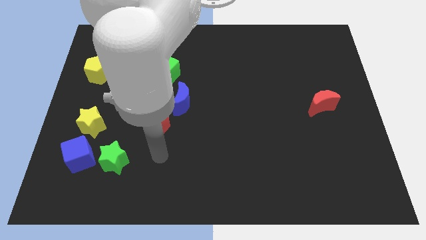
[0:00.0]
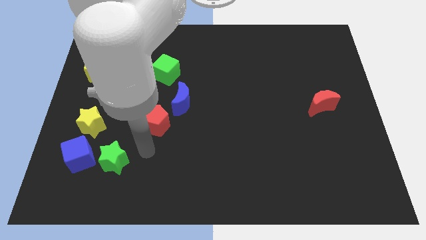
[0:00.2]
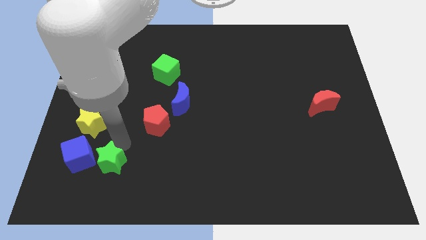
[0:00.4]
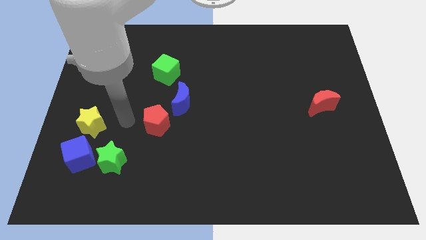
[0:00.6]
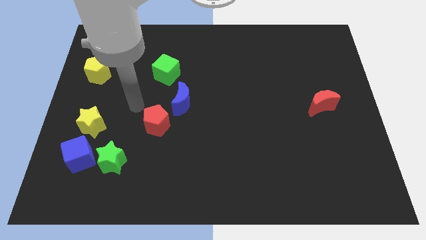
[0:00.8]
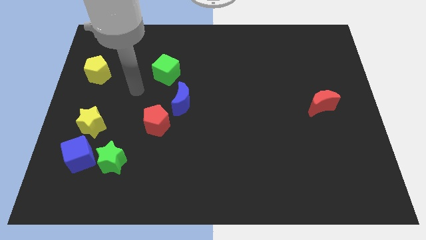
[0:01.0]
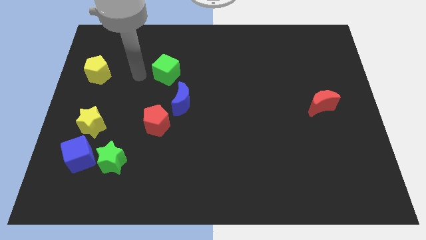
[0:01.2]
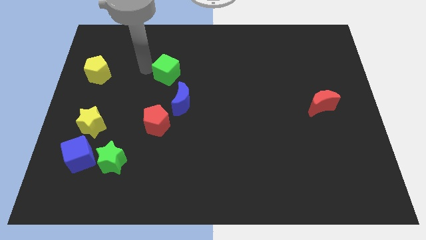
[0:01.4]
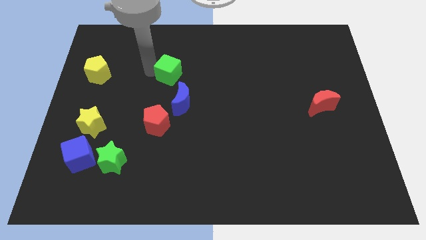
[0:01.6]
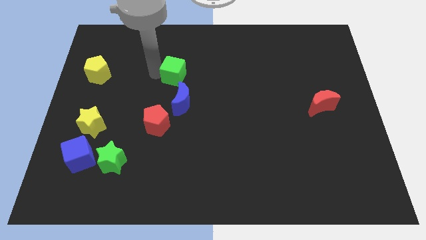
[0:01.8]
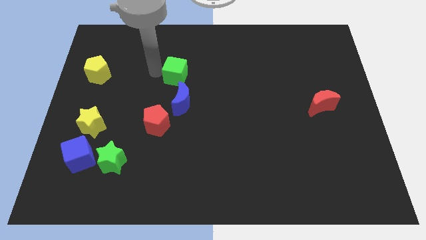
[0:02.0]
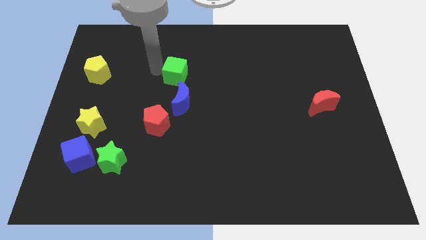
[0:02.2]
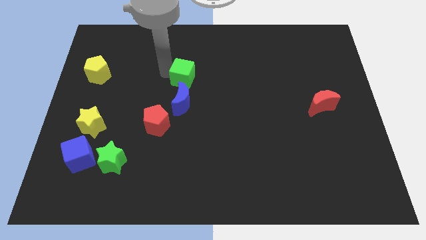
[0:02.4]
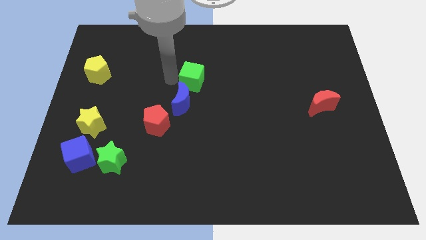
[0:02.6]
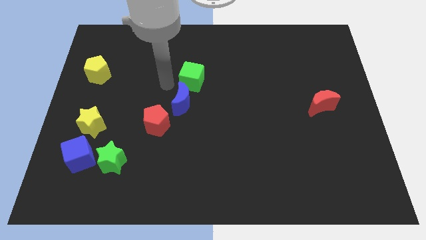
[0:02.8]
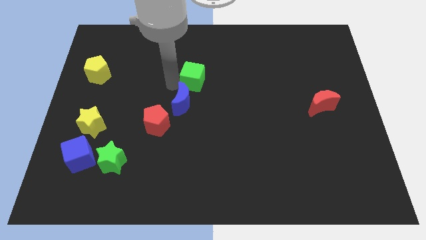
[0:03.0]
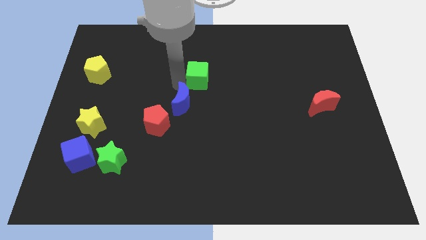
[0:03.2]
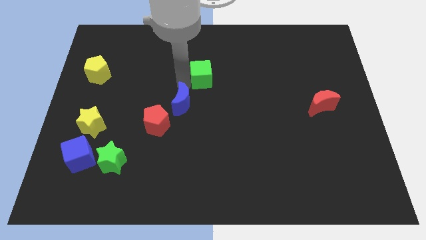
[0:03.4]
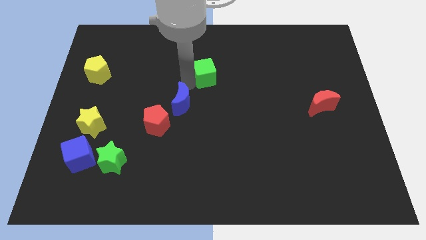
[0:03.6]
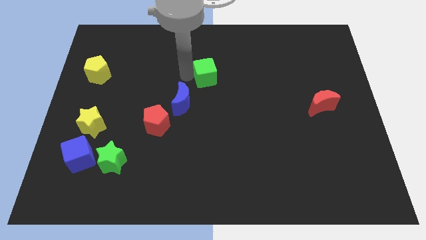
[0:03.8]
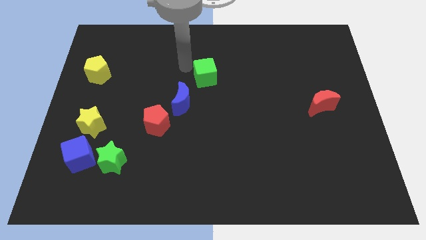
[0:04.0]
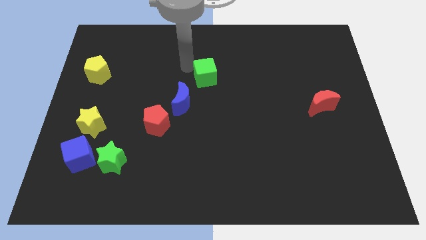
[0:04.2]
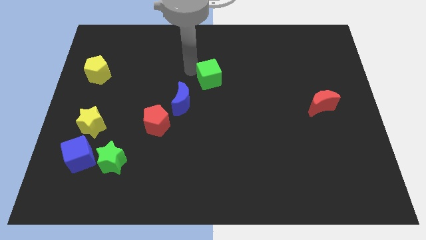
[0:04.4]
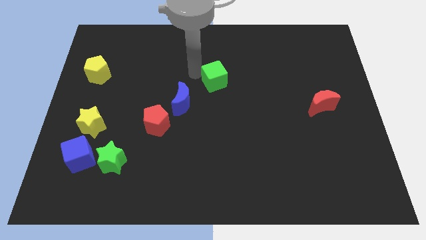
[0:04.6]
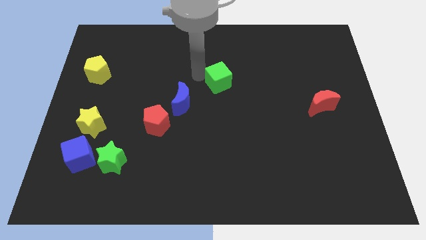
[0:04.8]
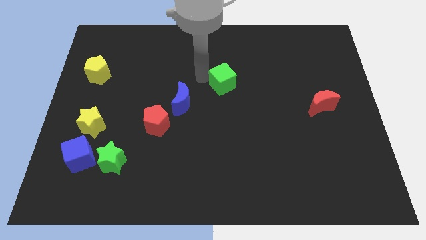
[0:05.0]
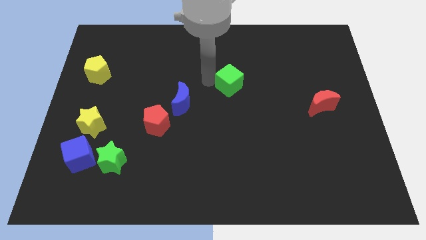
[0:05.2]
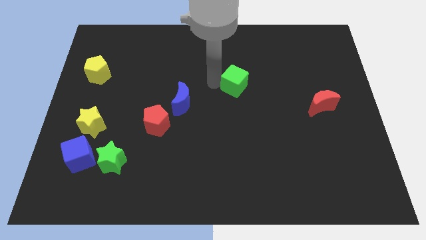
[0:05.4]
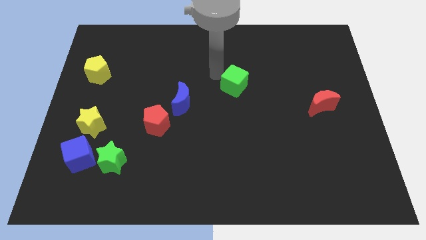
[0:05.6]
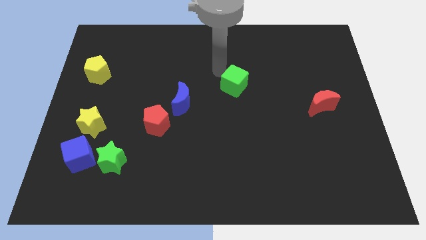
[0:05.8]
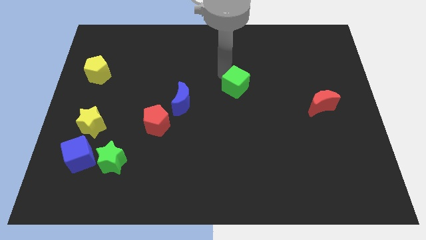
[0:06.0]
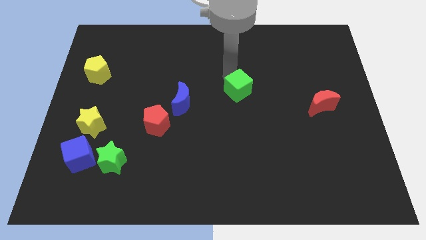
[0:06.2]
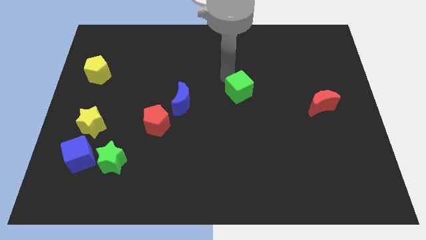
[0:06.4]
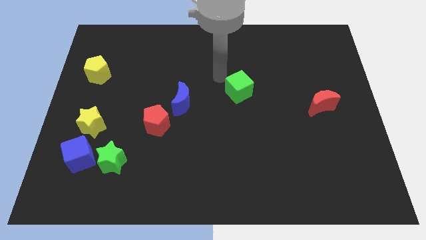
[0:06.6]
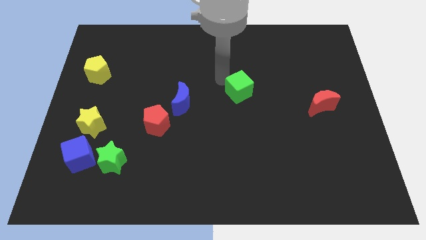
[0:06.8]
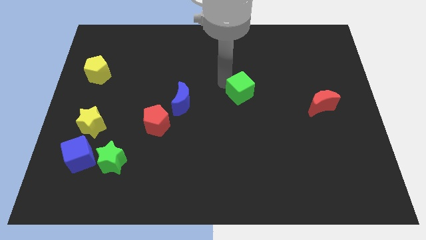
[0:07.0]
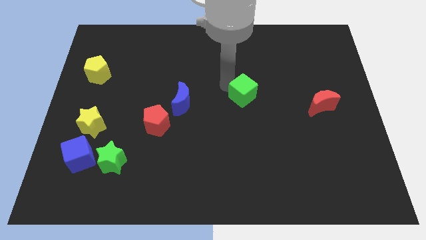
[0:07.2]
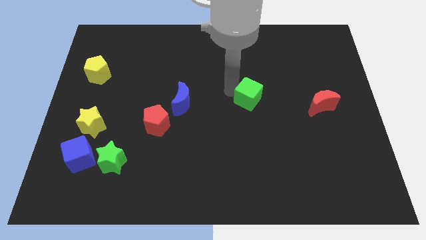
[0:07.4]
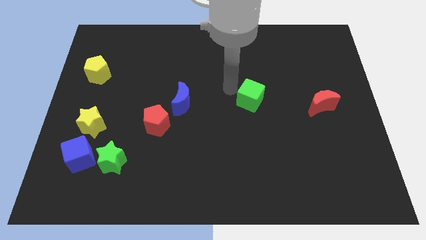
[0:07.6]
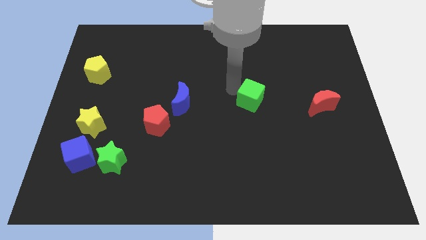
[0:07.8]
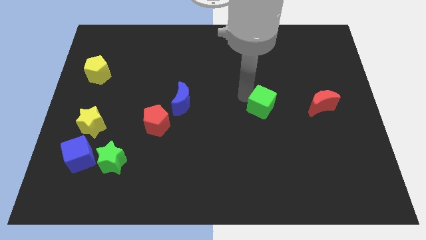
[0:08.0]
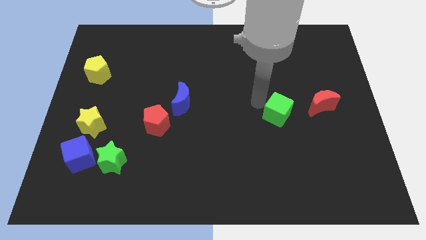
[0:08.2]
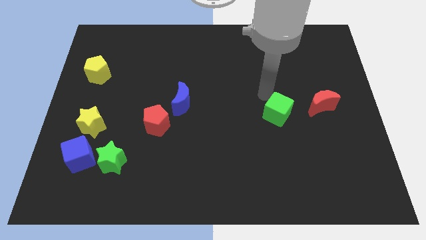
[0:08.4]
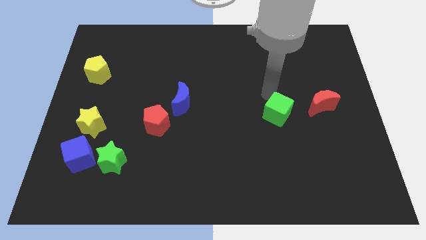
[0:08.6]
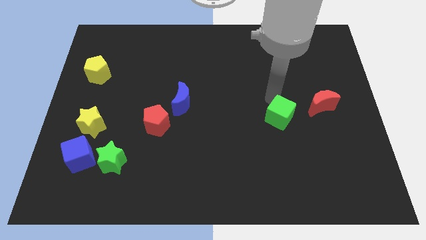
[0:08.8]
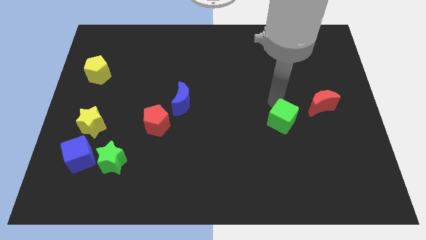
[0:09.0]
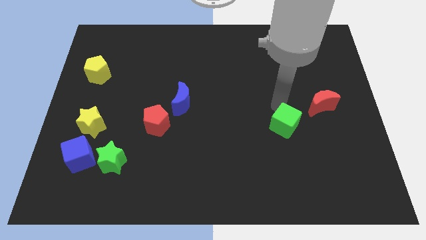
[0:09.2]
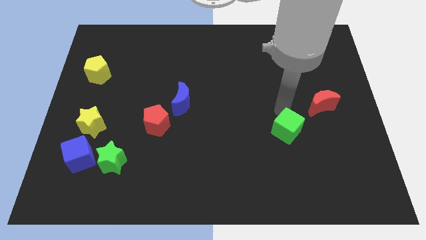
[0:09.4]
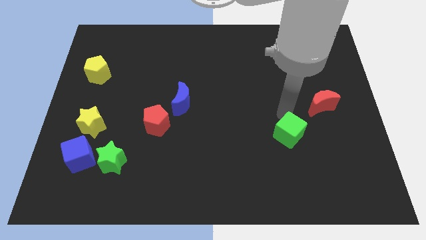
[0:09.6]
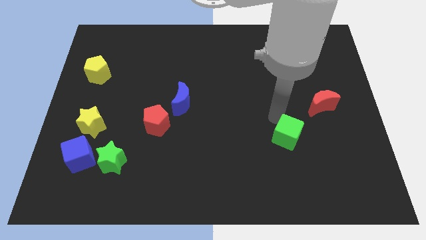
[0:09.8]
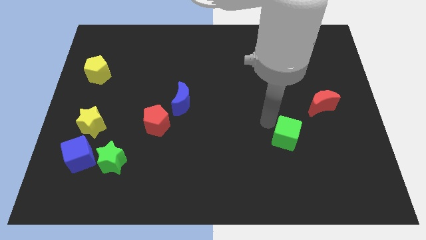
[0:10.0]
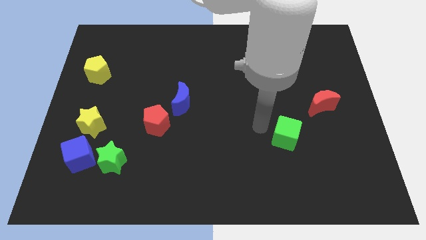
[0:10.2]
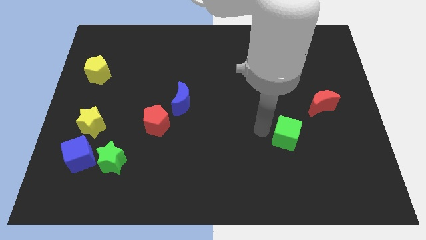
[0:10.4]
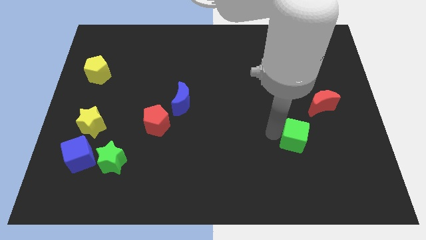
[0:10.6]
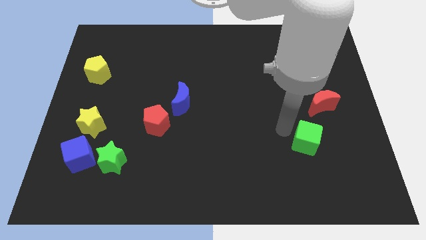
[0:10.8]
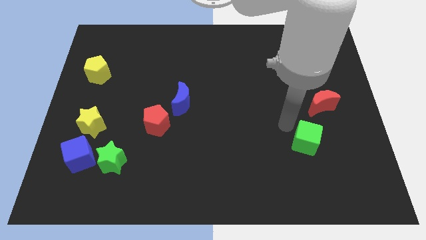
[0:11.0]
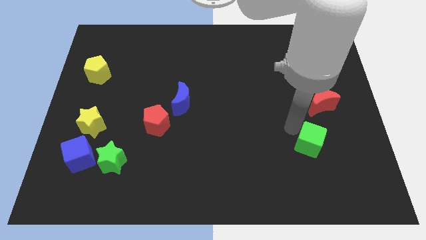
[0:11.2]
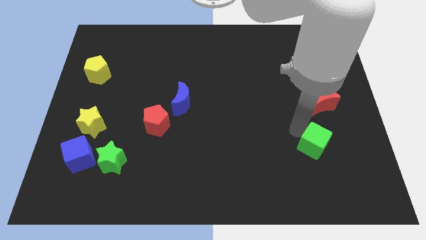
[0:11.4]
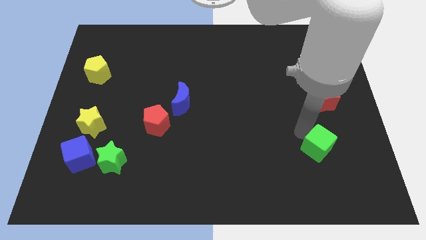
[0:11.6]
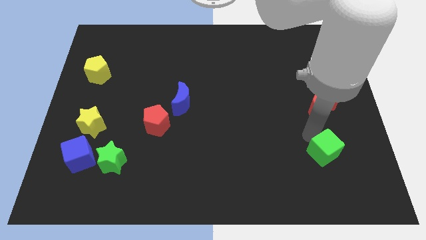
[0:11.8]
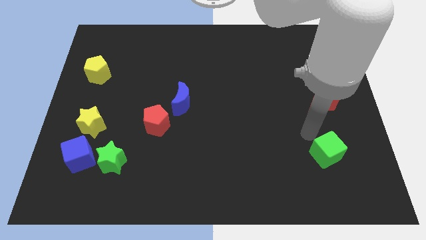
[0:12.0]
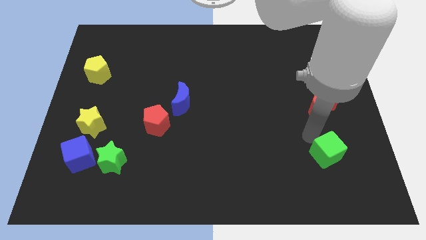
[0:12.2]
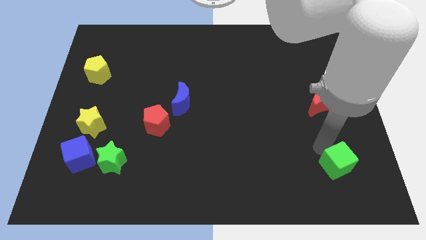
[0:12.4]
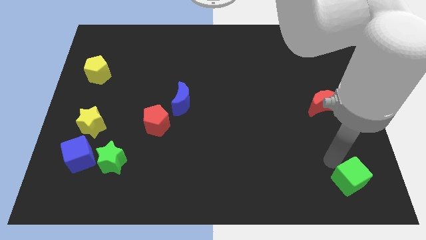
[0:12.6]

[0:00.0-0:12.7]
push the green cube to the lower right corner
